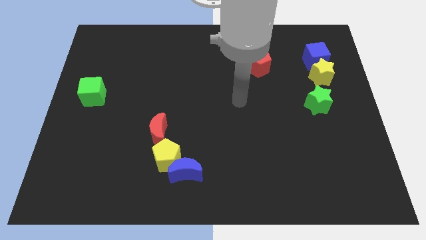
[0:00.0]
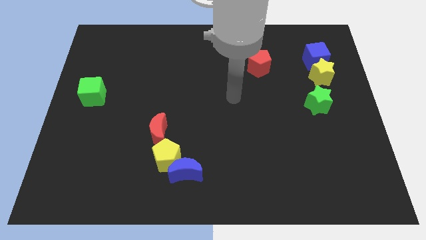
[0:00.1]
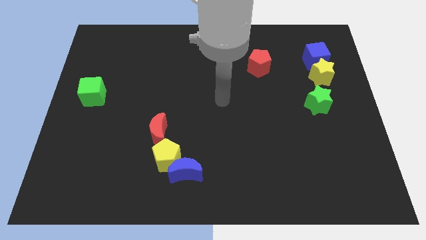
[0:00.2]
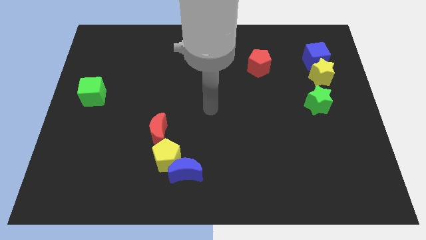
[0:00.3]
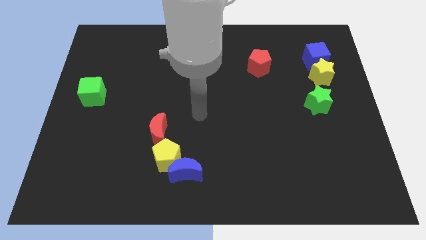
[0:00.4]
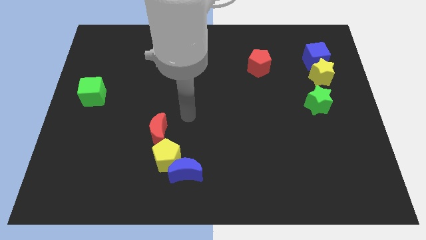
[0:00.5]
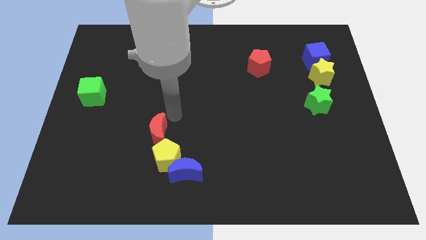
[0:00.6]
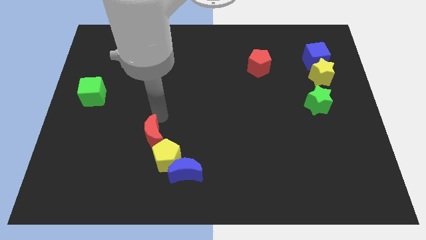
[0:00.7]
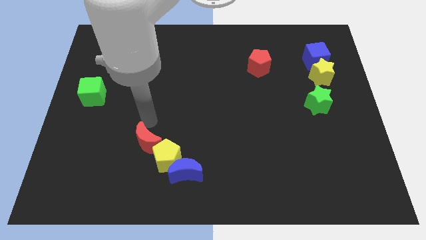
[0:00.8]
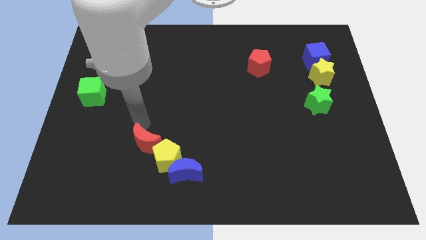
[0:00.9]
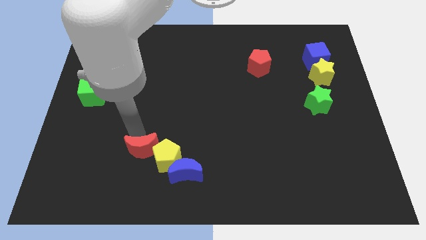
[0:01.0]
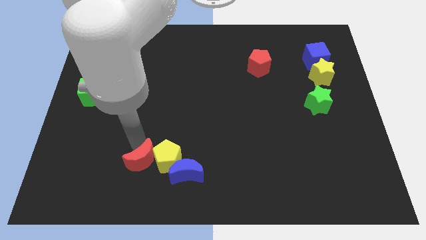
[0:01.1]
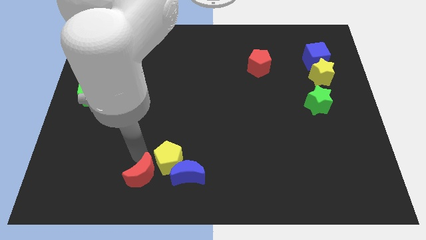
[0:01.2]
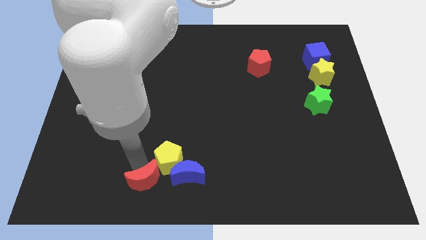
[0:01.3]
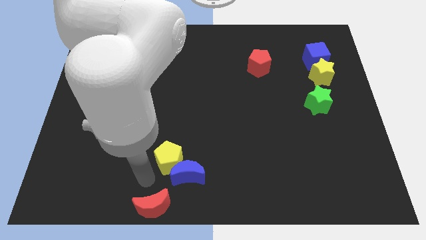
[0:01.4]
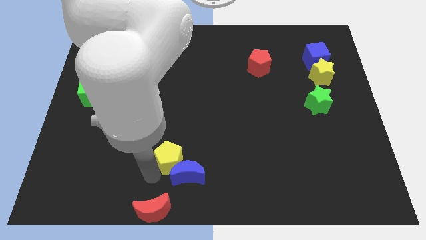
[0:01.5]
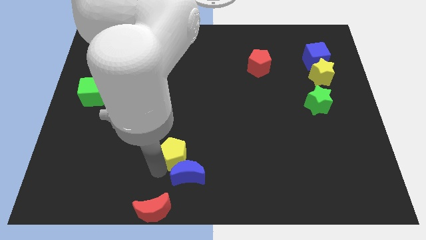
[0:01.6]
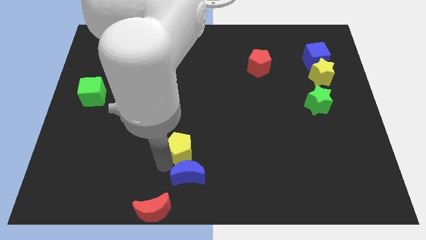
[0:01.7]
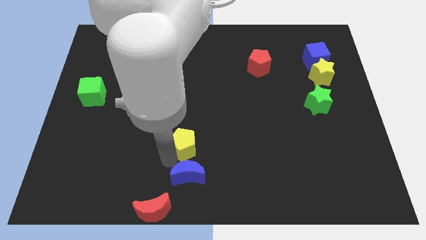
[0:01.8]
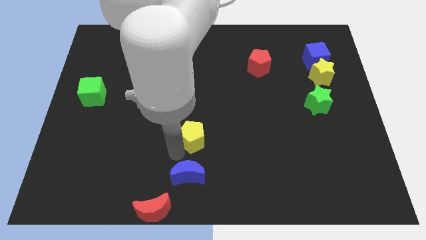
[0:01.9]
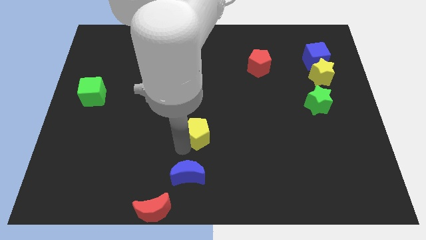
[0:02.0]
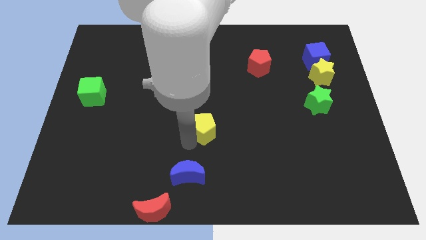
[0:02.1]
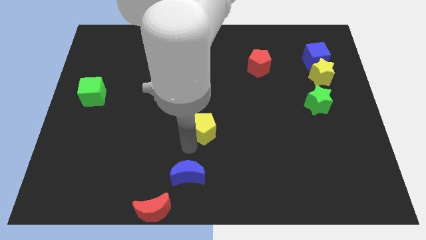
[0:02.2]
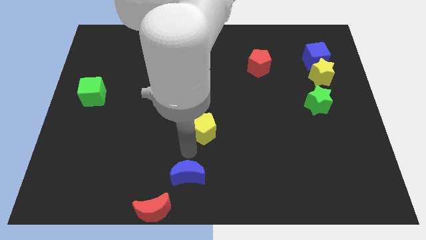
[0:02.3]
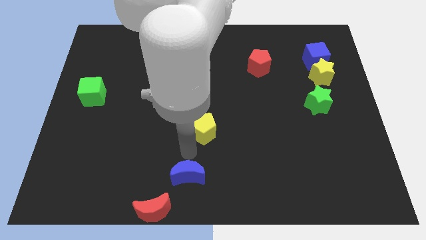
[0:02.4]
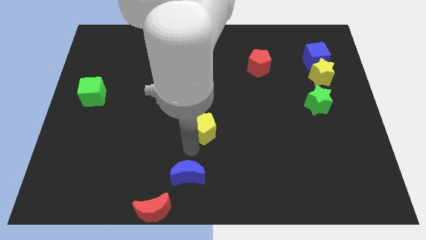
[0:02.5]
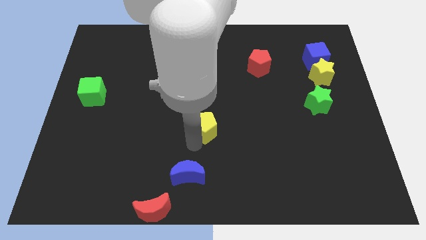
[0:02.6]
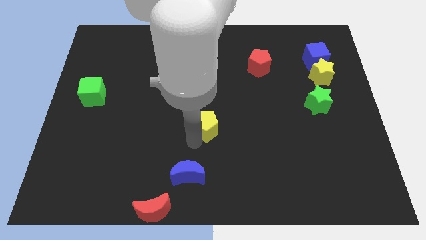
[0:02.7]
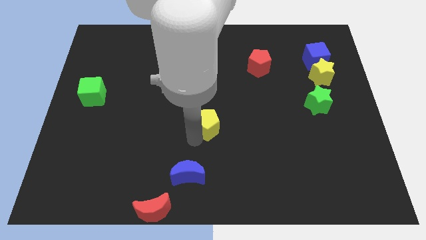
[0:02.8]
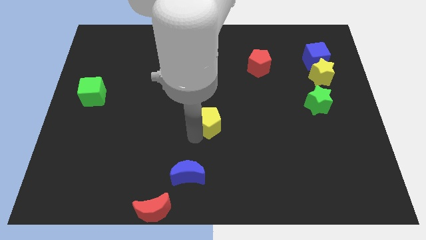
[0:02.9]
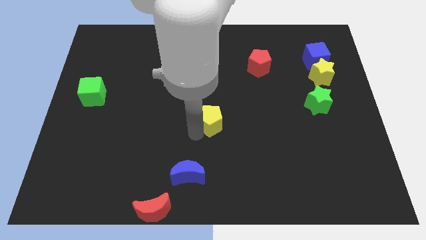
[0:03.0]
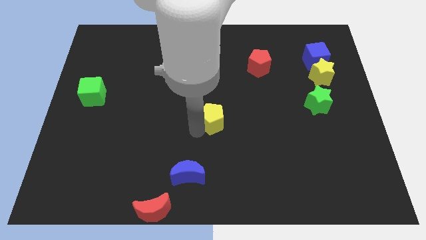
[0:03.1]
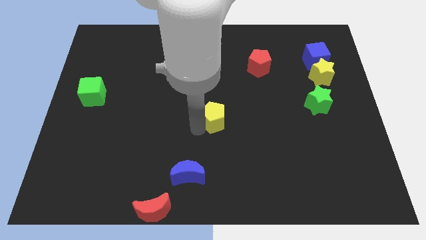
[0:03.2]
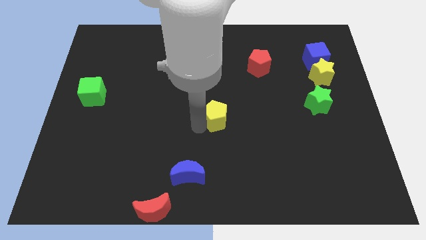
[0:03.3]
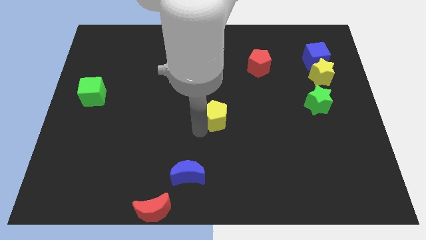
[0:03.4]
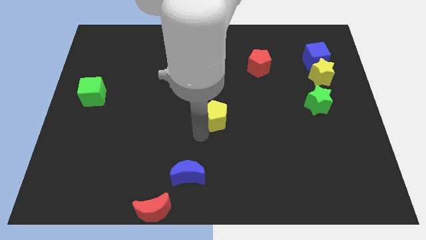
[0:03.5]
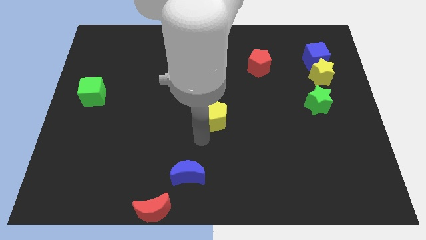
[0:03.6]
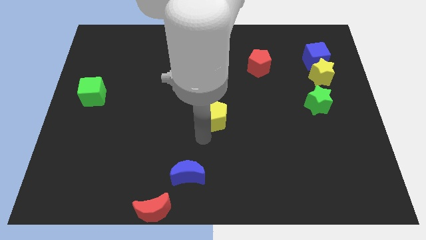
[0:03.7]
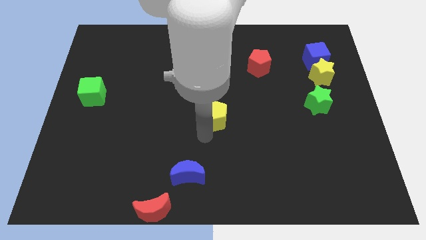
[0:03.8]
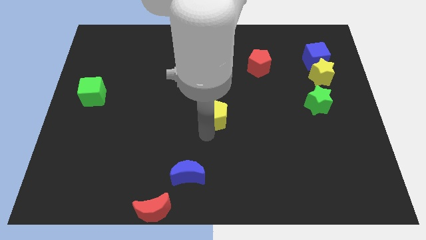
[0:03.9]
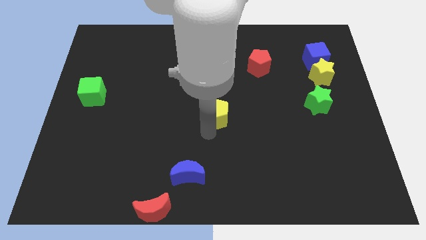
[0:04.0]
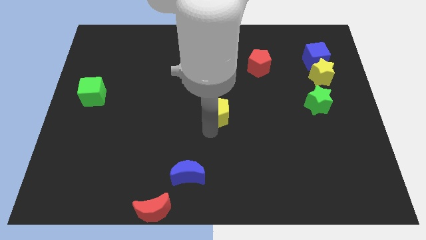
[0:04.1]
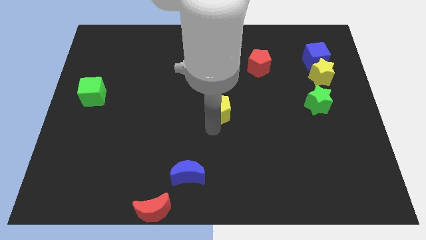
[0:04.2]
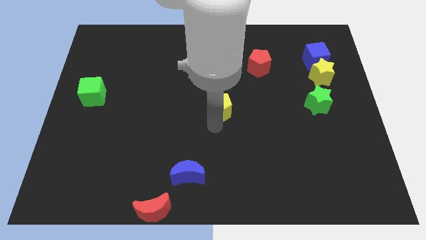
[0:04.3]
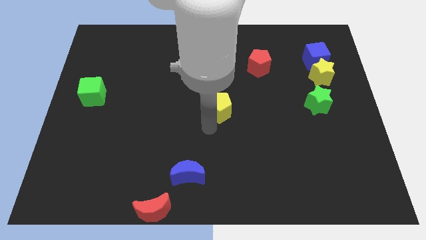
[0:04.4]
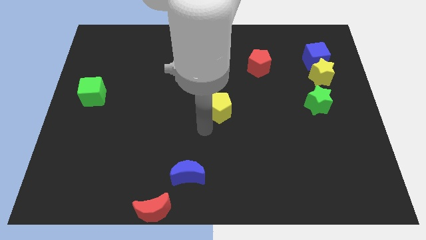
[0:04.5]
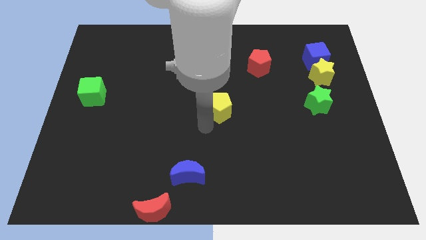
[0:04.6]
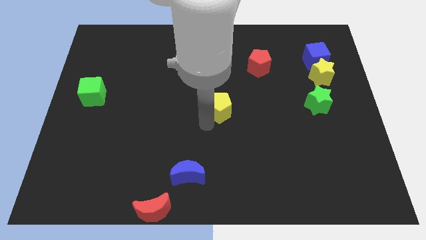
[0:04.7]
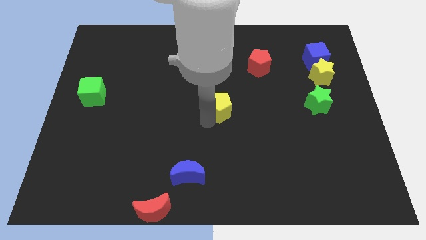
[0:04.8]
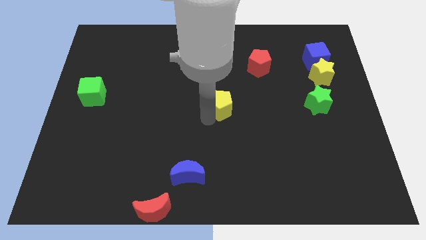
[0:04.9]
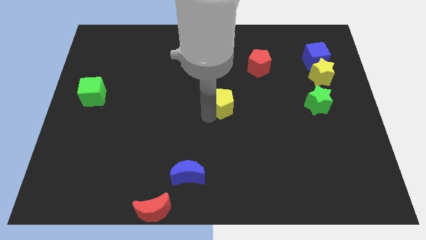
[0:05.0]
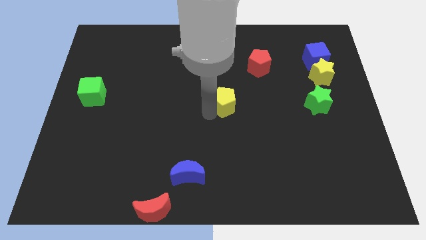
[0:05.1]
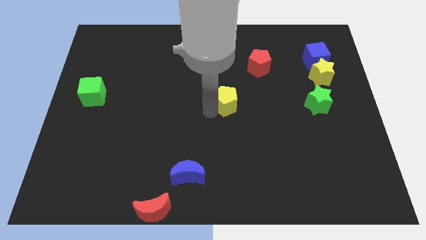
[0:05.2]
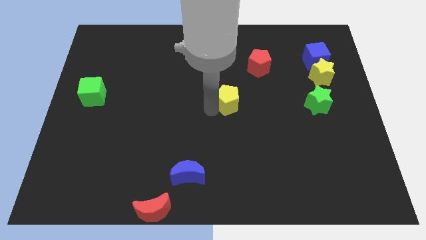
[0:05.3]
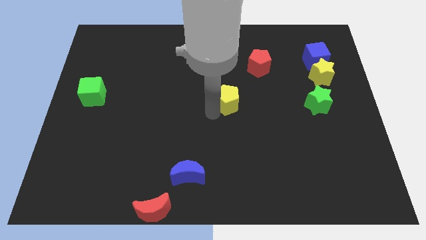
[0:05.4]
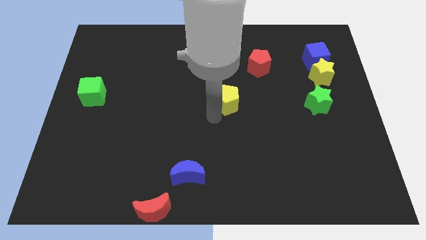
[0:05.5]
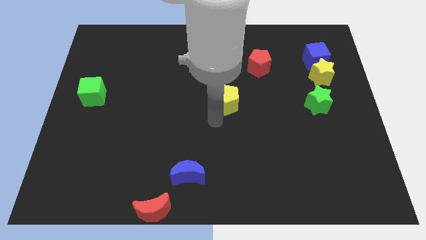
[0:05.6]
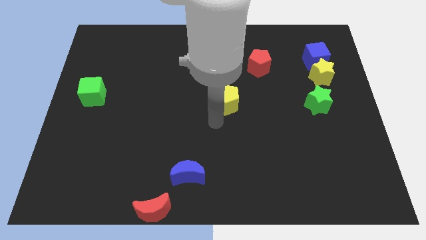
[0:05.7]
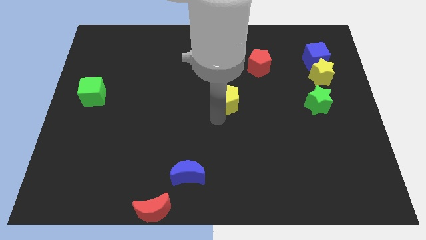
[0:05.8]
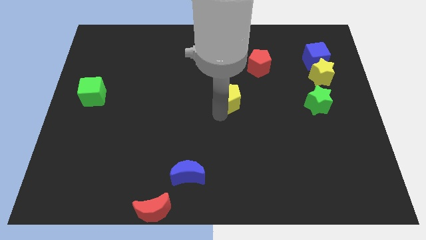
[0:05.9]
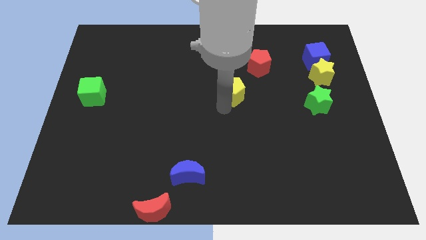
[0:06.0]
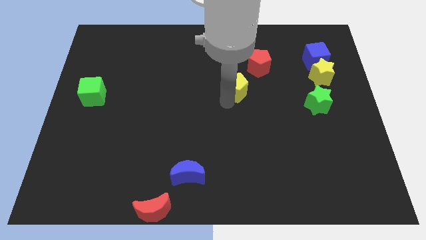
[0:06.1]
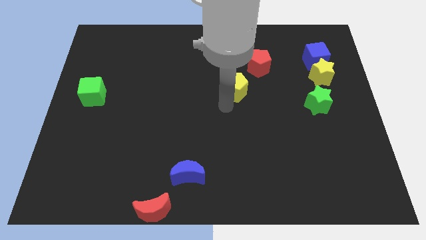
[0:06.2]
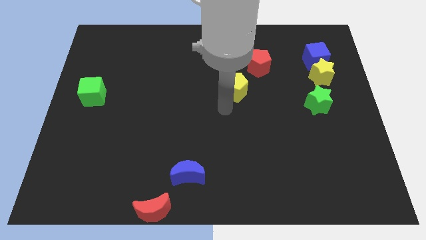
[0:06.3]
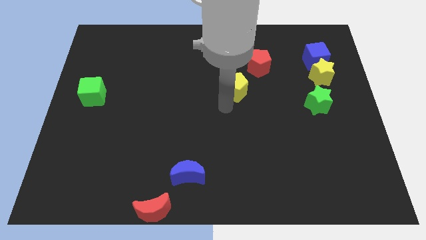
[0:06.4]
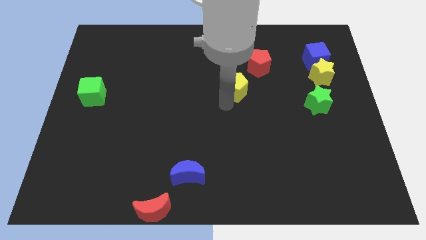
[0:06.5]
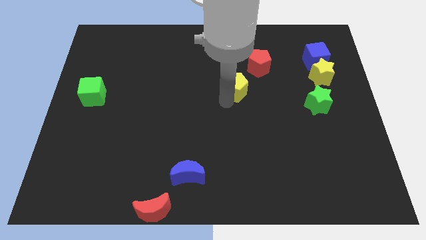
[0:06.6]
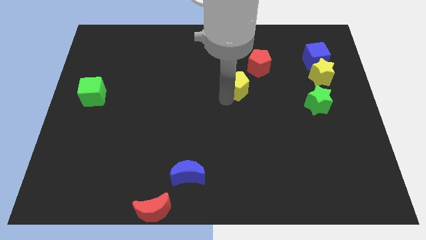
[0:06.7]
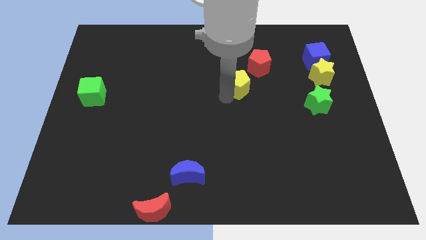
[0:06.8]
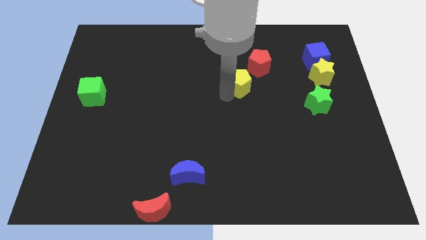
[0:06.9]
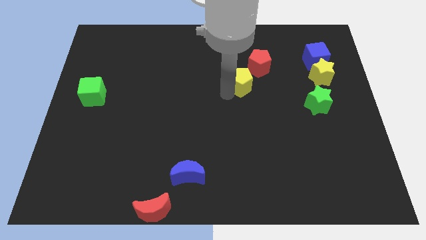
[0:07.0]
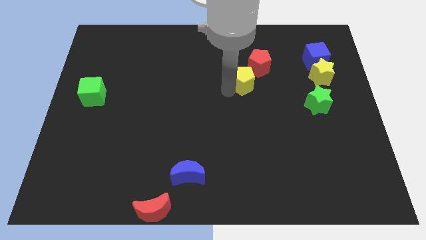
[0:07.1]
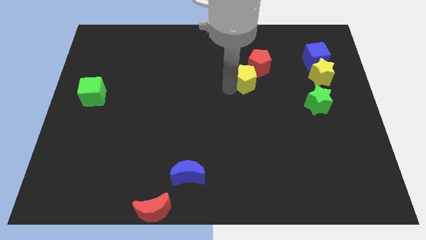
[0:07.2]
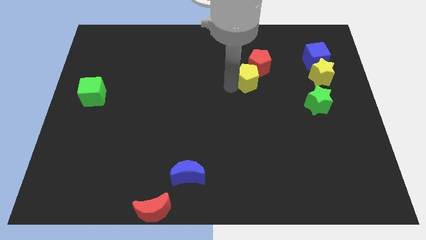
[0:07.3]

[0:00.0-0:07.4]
slide the yellow pentagon towards the red pentagon
